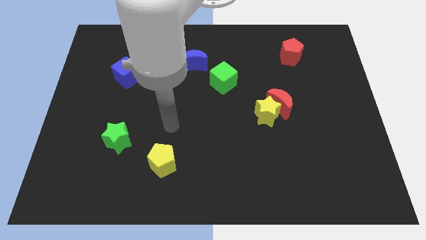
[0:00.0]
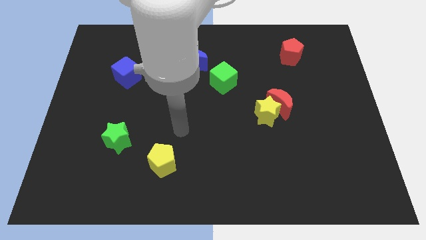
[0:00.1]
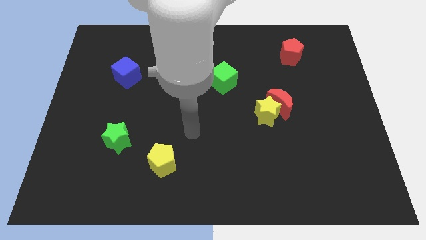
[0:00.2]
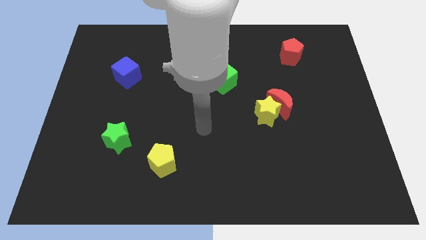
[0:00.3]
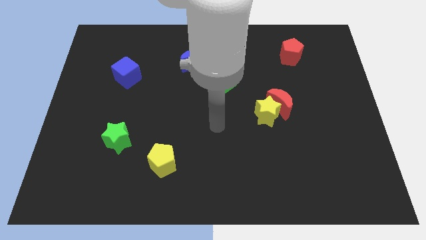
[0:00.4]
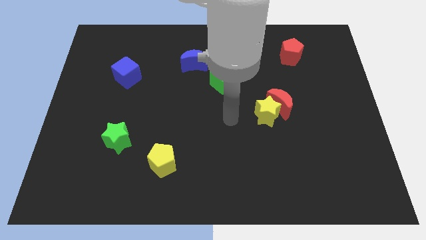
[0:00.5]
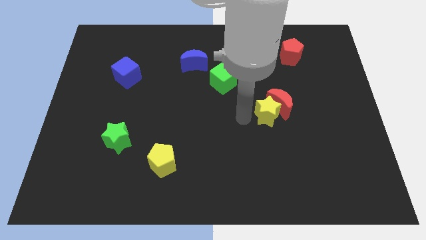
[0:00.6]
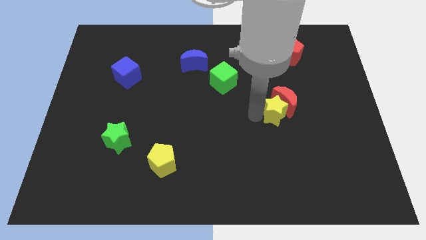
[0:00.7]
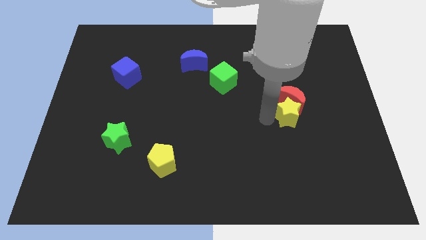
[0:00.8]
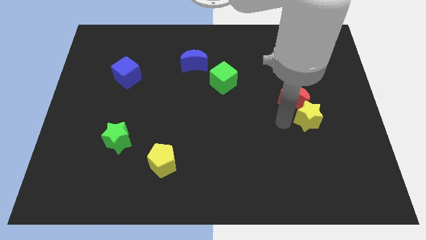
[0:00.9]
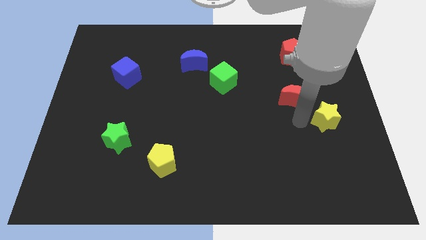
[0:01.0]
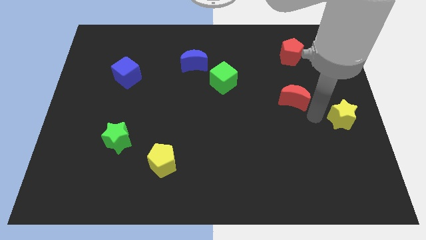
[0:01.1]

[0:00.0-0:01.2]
pull the red moon apart from the yellow star

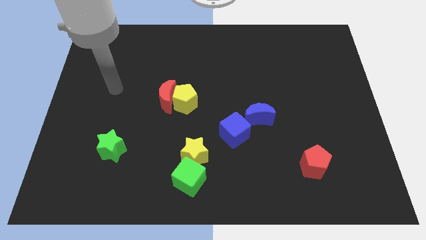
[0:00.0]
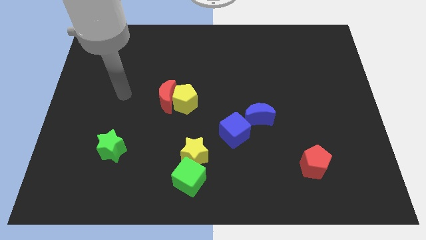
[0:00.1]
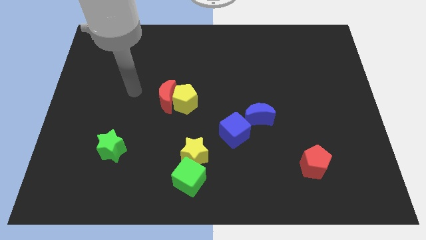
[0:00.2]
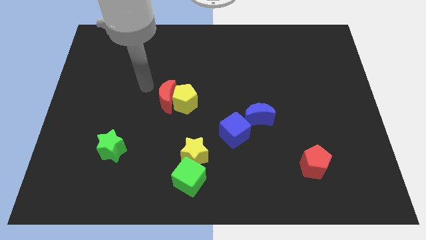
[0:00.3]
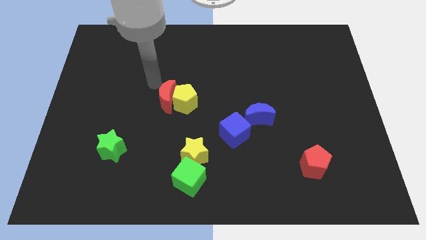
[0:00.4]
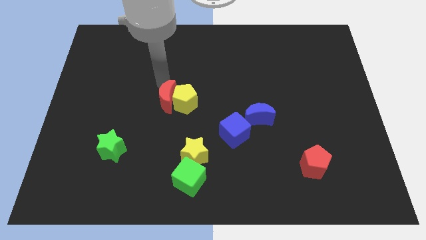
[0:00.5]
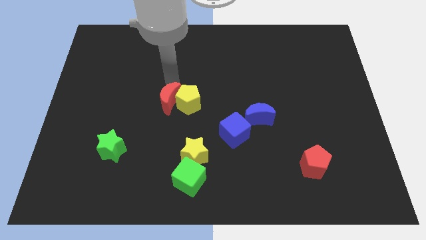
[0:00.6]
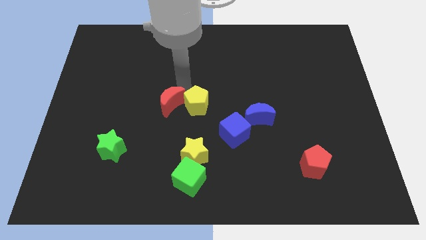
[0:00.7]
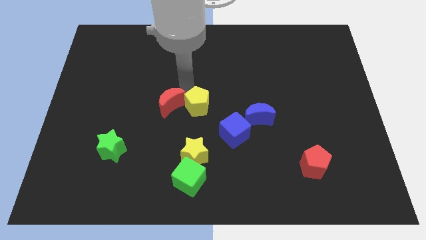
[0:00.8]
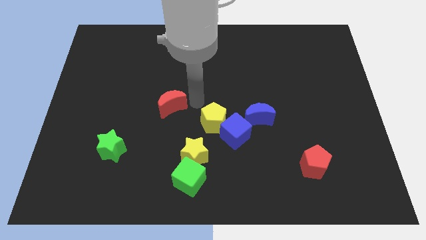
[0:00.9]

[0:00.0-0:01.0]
separate the red moon from the yellow pentagon

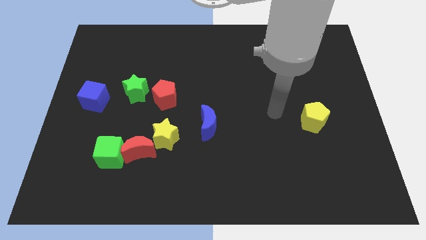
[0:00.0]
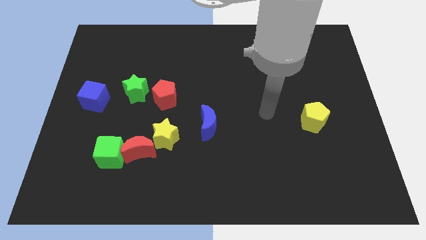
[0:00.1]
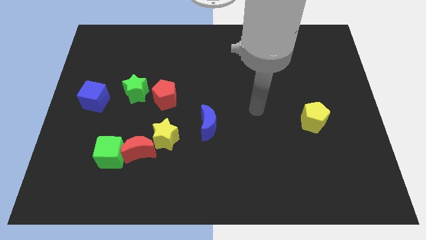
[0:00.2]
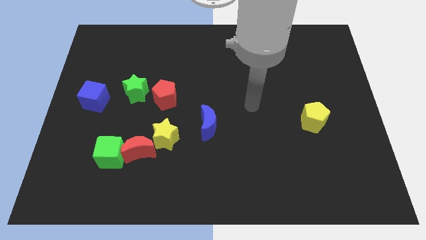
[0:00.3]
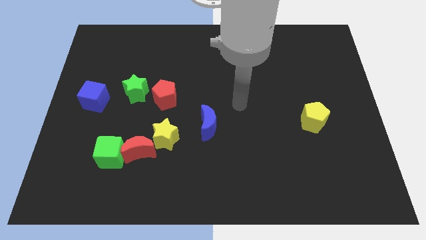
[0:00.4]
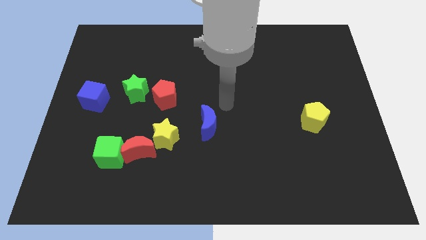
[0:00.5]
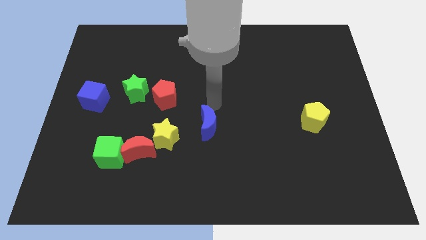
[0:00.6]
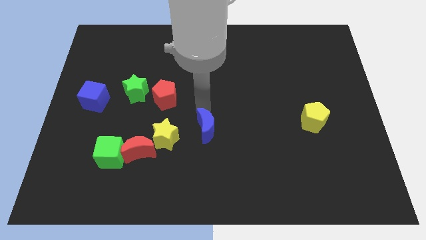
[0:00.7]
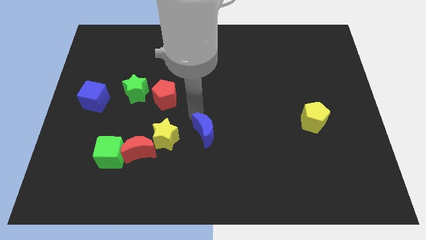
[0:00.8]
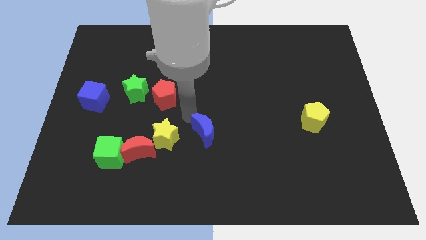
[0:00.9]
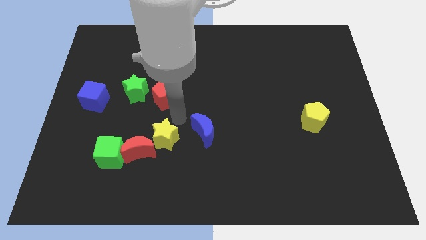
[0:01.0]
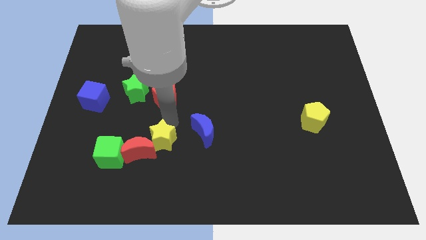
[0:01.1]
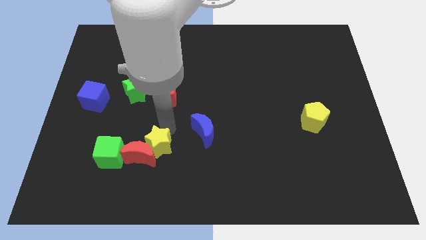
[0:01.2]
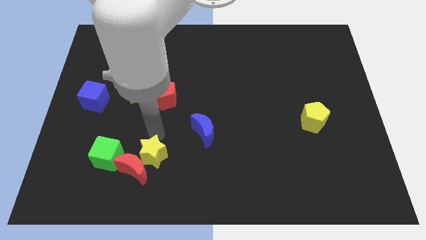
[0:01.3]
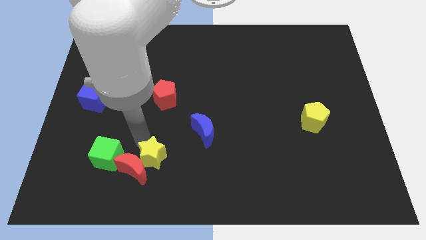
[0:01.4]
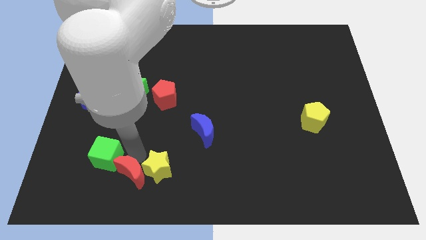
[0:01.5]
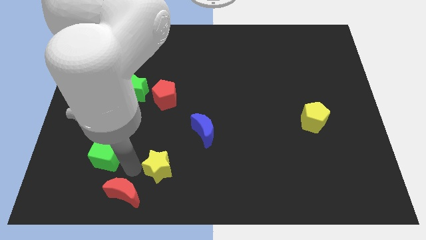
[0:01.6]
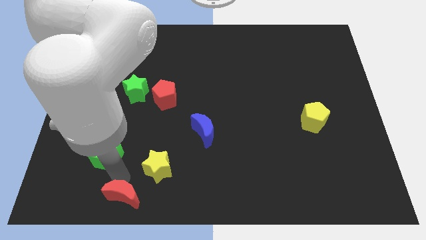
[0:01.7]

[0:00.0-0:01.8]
separate the green cube from the red moon

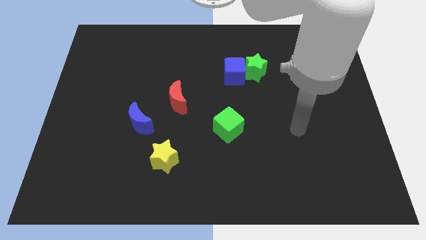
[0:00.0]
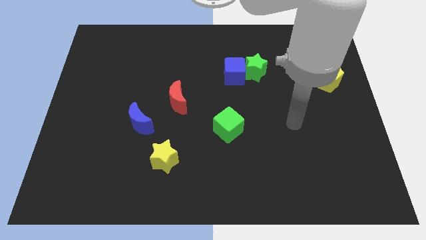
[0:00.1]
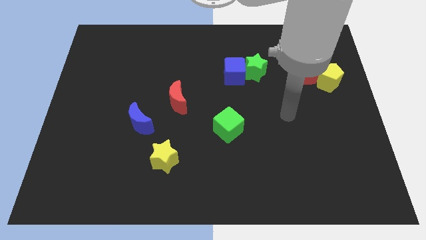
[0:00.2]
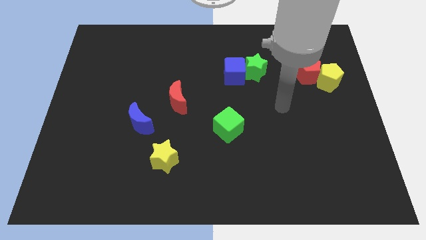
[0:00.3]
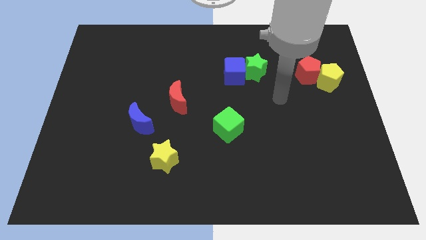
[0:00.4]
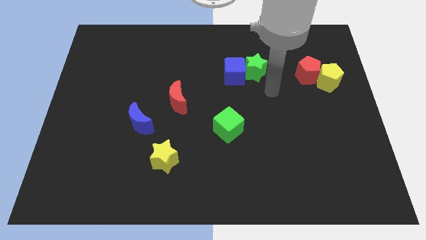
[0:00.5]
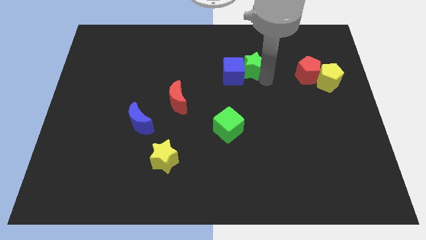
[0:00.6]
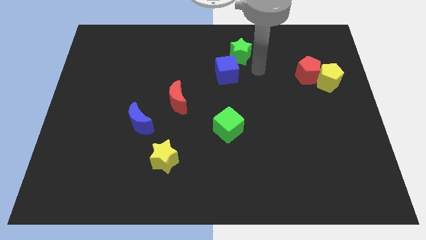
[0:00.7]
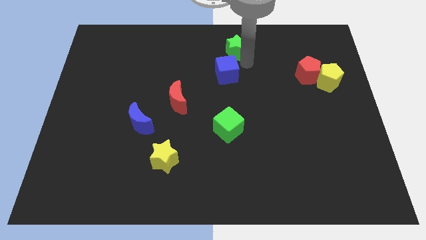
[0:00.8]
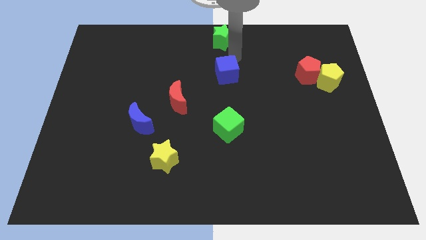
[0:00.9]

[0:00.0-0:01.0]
separate the blue cube from the green star

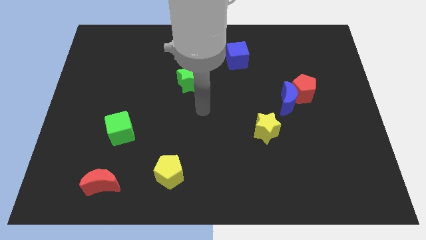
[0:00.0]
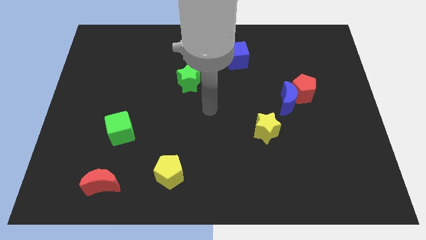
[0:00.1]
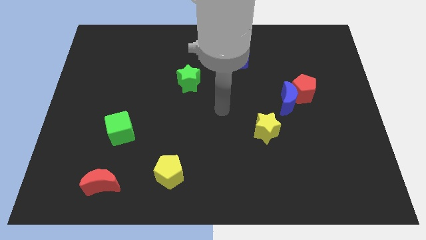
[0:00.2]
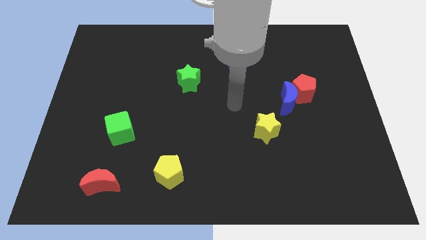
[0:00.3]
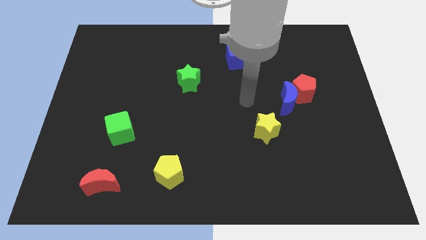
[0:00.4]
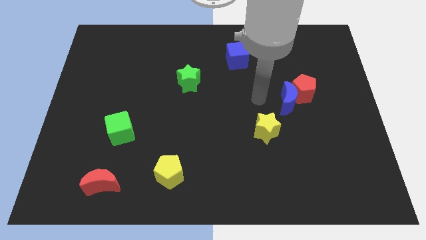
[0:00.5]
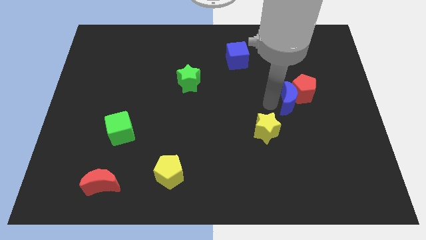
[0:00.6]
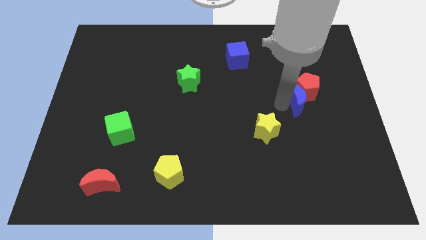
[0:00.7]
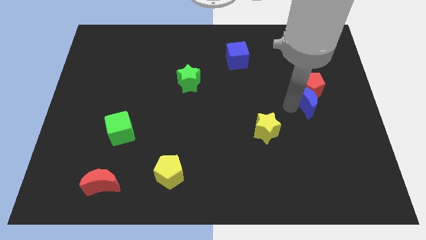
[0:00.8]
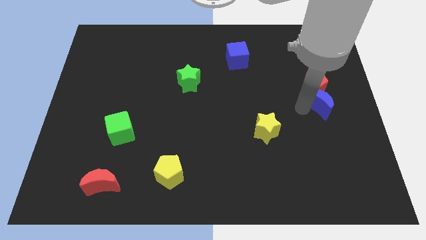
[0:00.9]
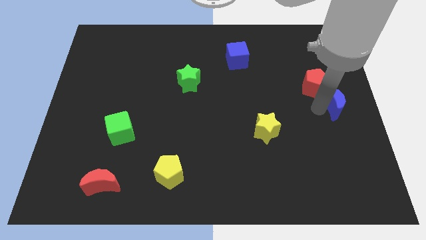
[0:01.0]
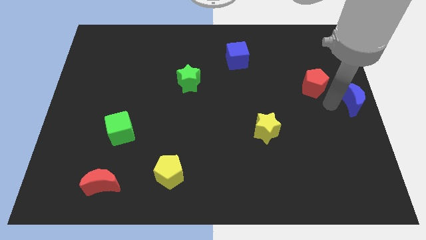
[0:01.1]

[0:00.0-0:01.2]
move the red pentagon away from the blue moon

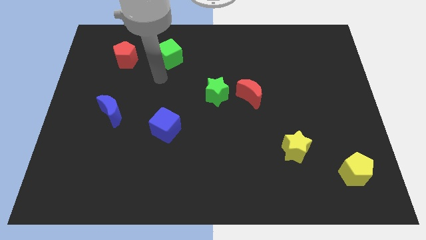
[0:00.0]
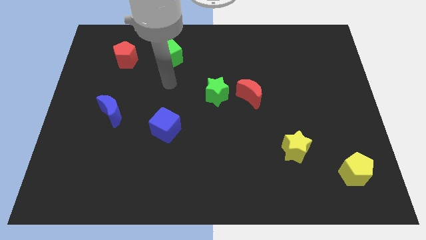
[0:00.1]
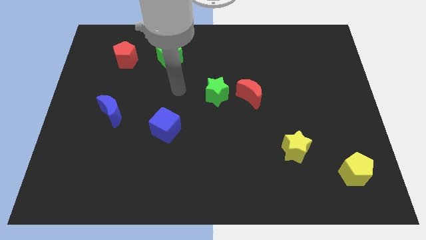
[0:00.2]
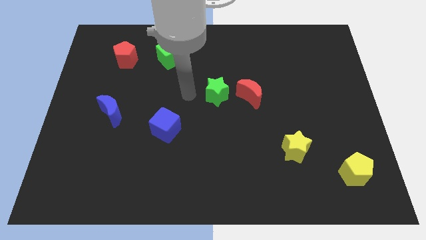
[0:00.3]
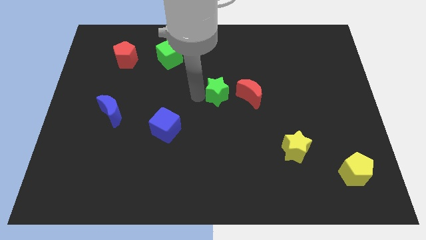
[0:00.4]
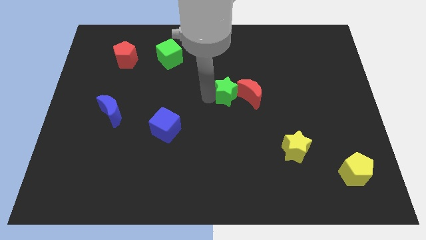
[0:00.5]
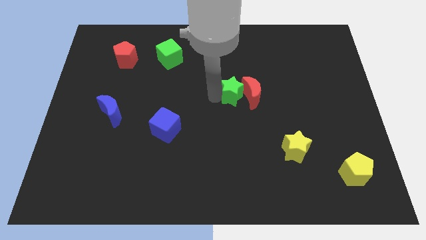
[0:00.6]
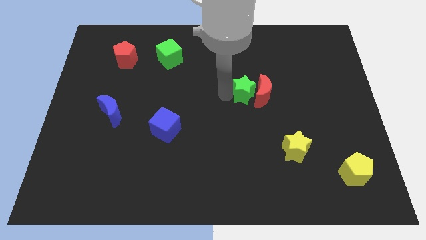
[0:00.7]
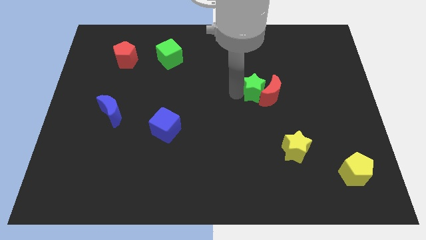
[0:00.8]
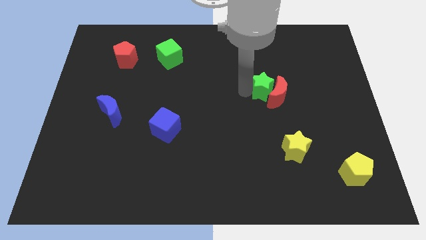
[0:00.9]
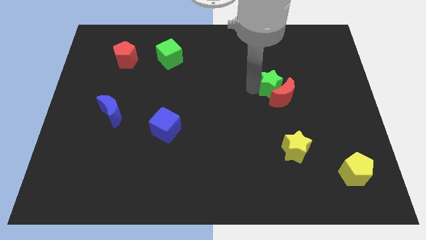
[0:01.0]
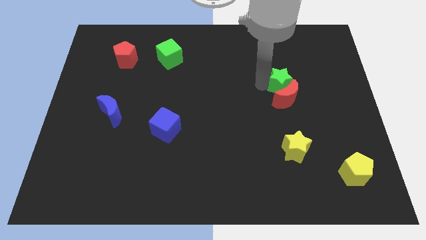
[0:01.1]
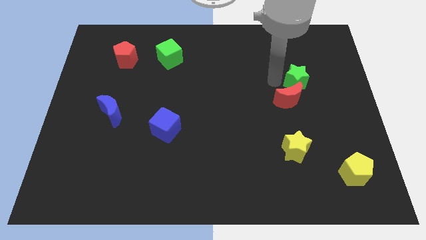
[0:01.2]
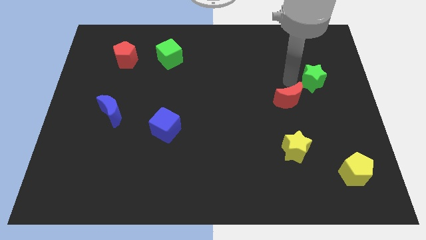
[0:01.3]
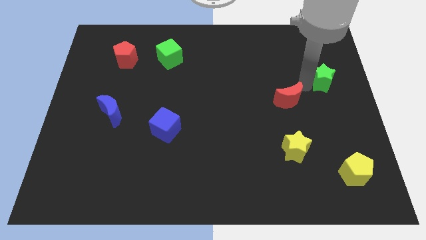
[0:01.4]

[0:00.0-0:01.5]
move the red moon away from the green star

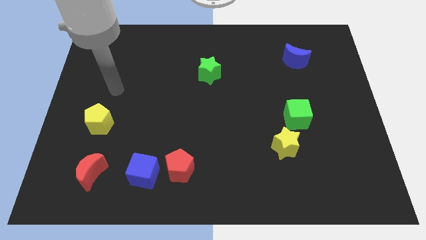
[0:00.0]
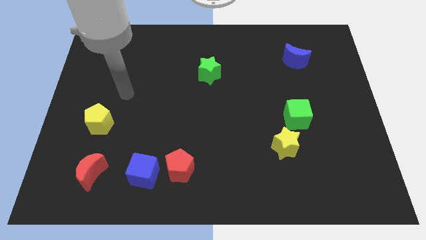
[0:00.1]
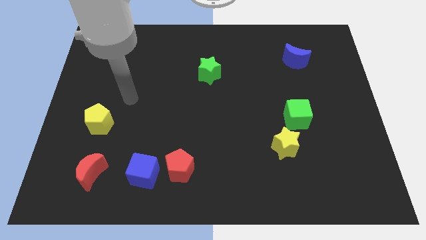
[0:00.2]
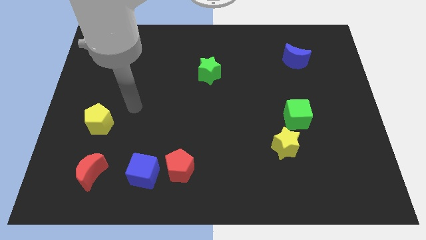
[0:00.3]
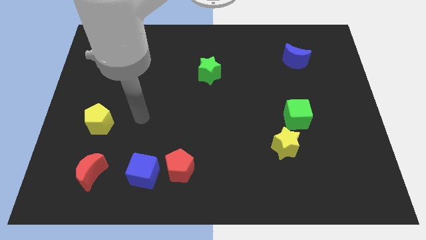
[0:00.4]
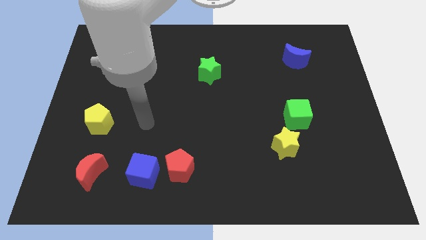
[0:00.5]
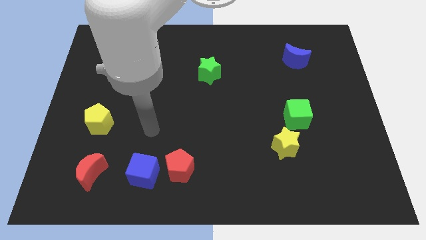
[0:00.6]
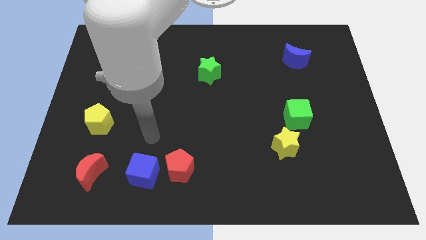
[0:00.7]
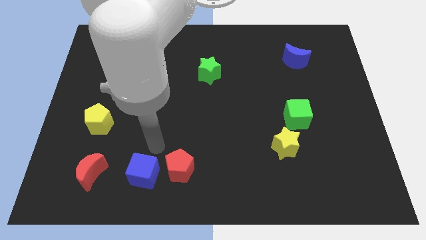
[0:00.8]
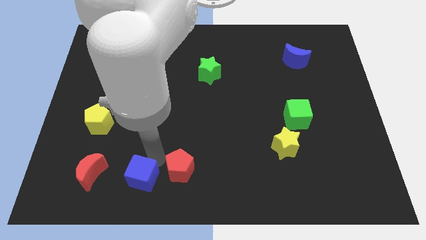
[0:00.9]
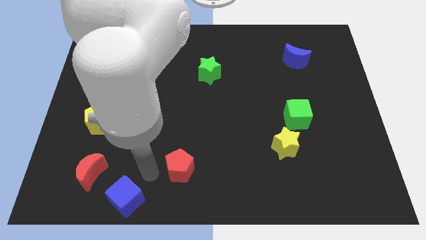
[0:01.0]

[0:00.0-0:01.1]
pull the red pentagon apart from the blue cube

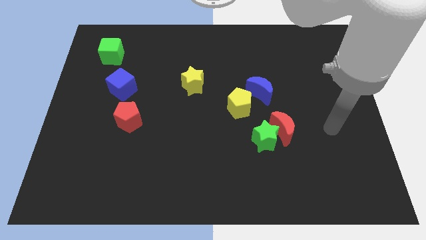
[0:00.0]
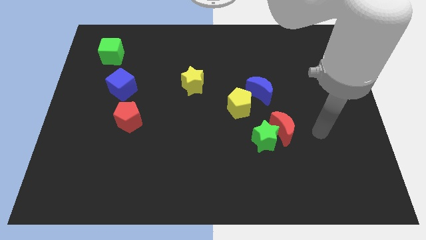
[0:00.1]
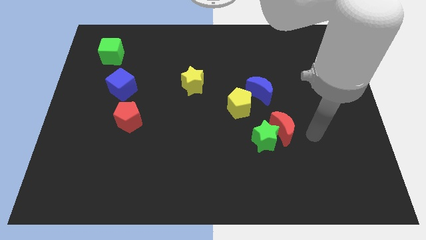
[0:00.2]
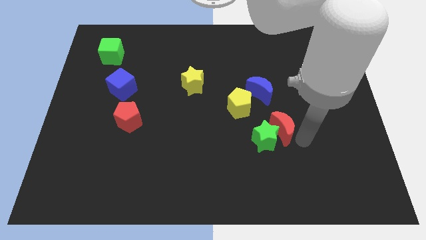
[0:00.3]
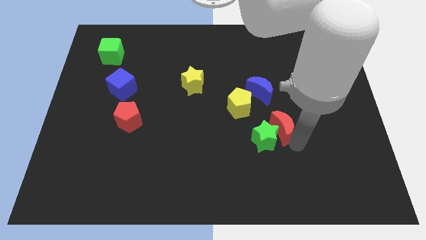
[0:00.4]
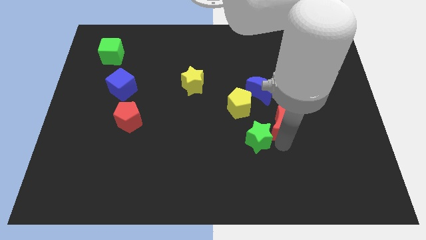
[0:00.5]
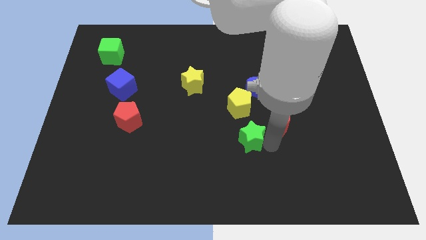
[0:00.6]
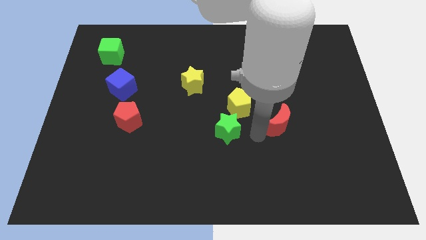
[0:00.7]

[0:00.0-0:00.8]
pull the red moon apart from the green star
